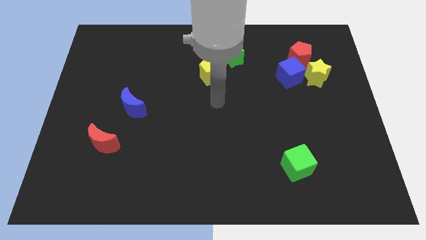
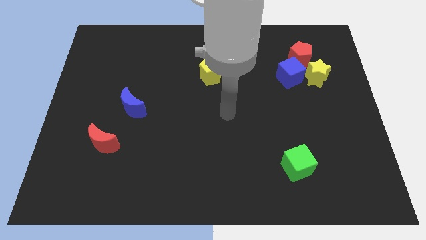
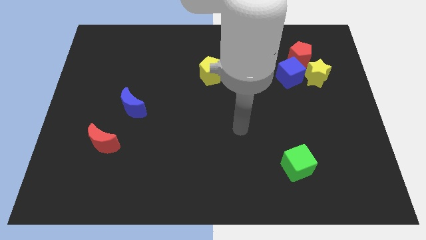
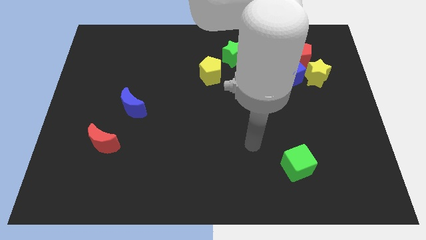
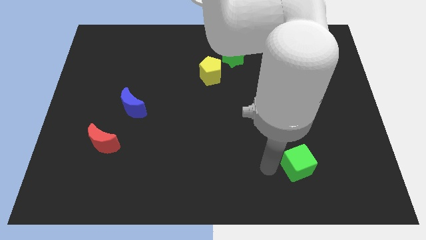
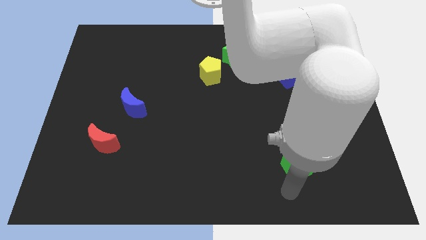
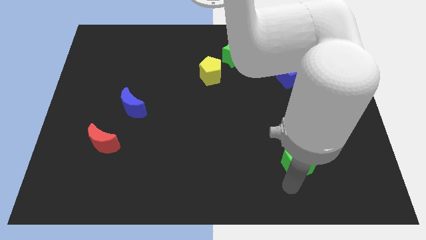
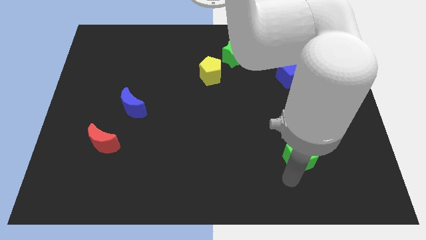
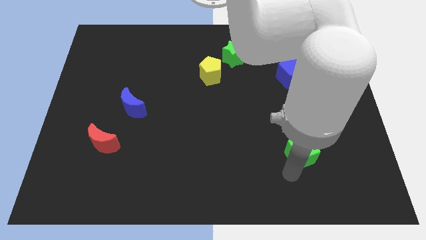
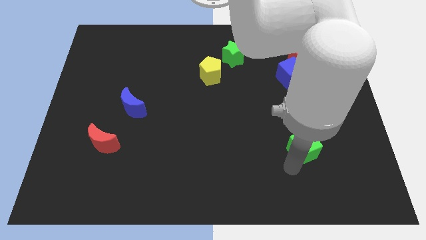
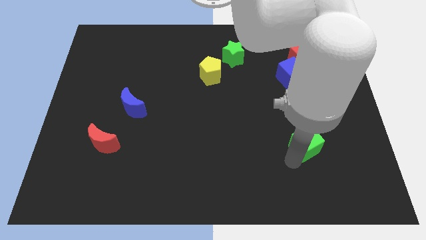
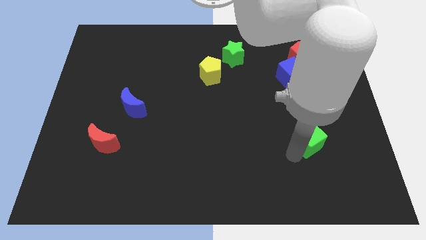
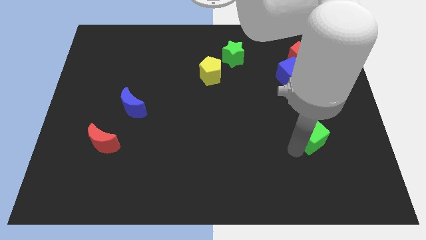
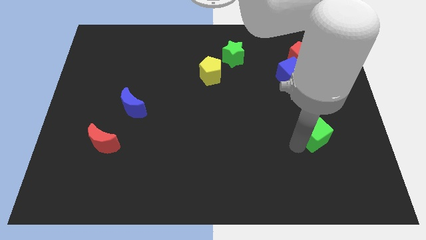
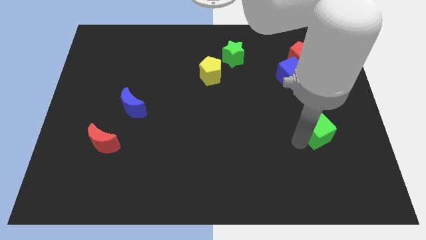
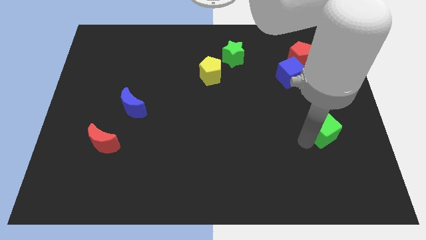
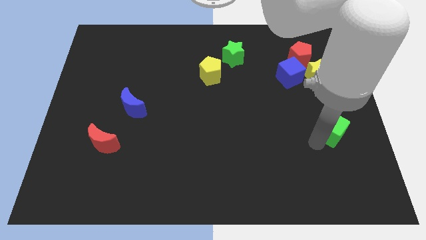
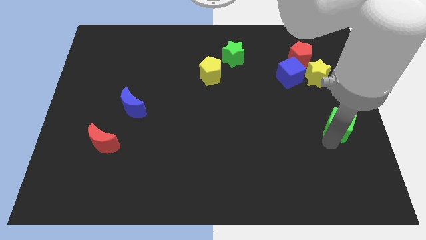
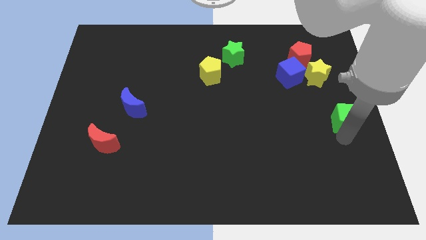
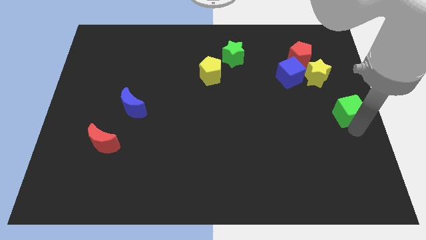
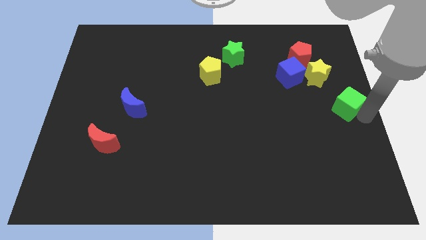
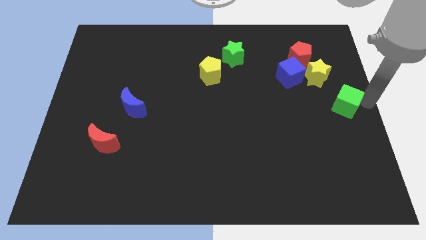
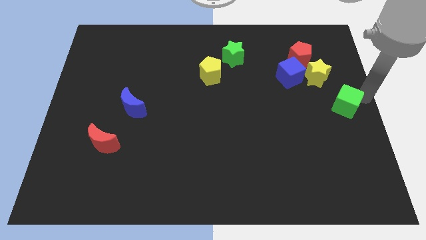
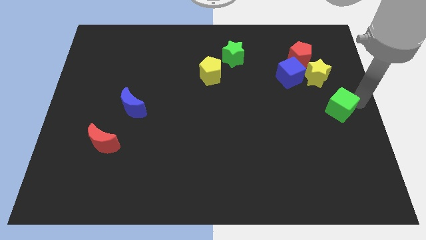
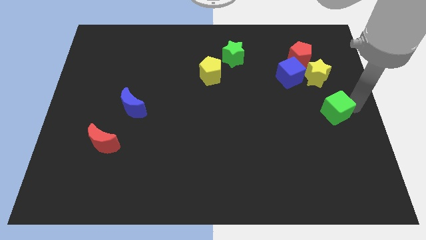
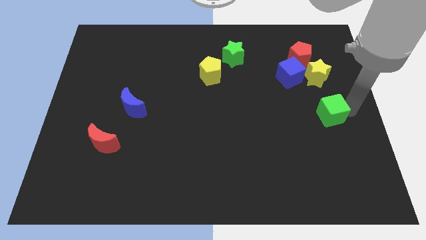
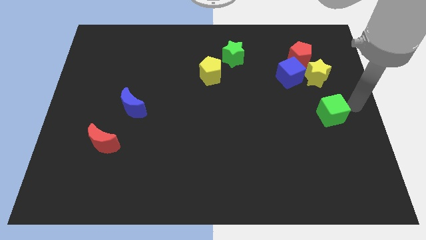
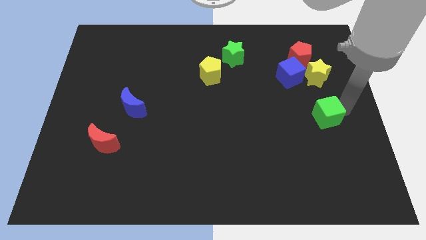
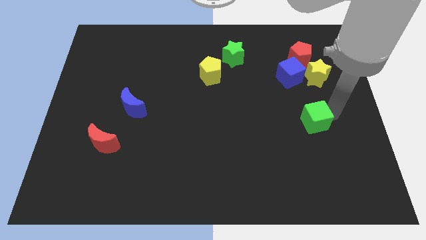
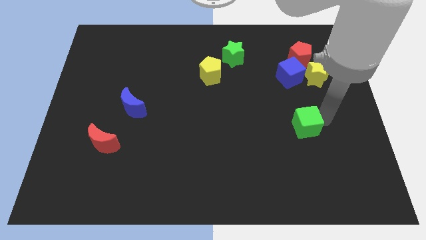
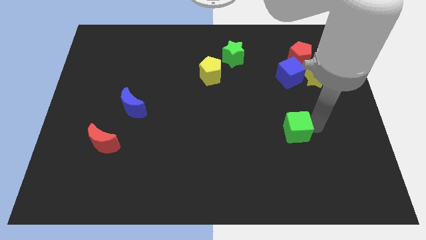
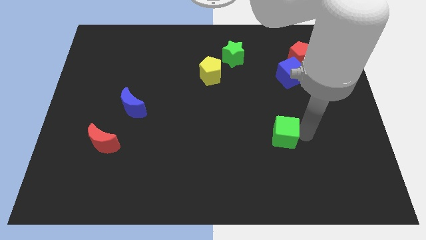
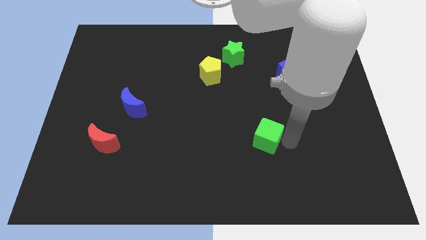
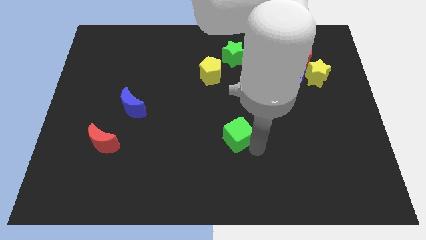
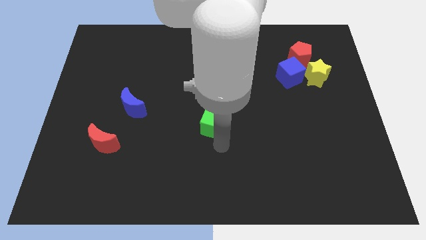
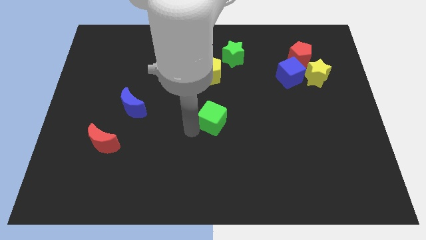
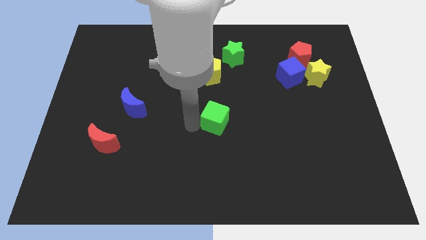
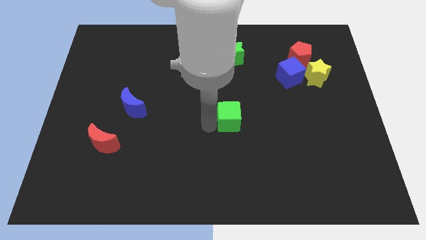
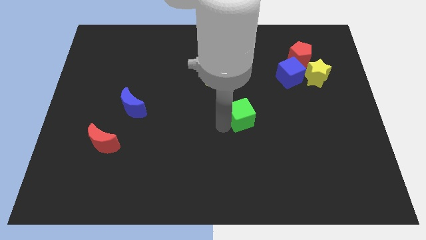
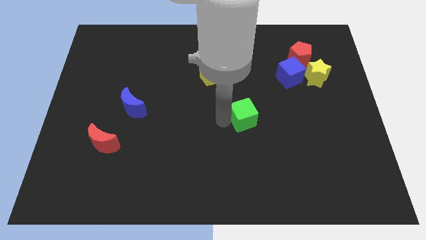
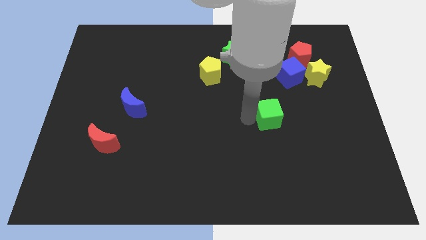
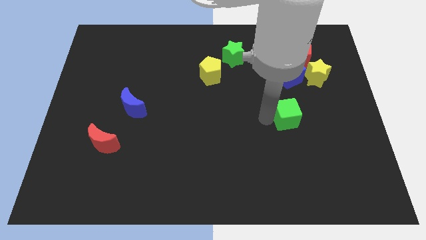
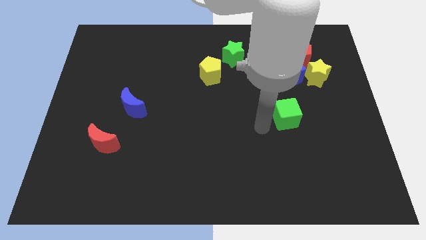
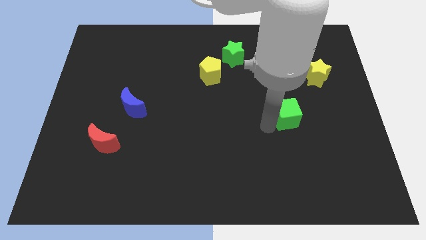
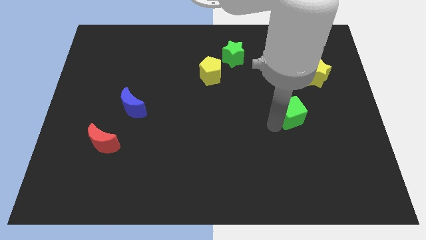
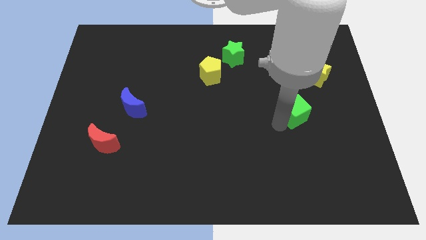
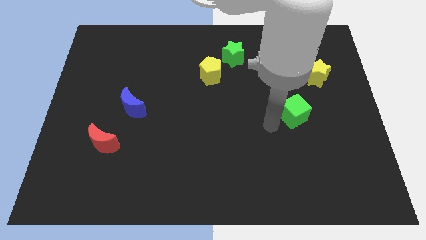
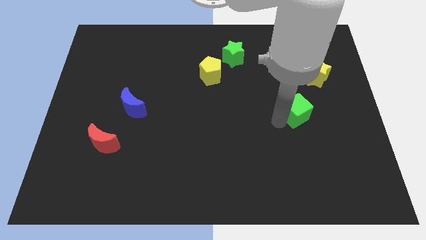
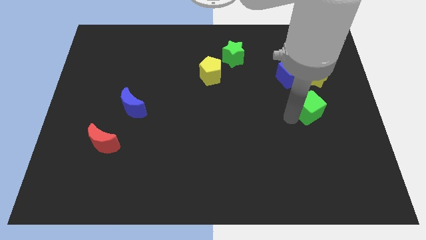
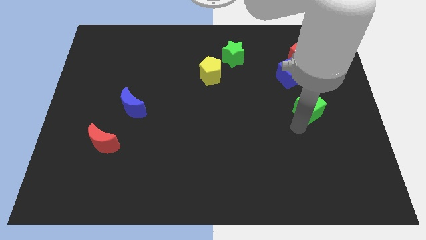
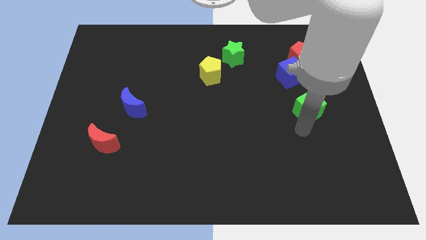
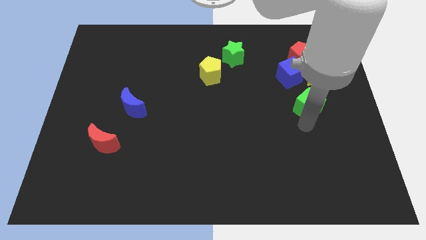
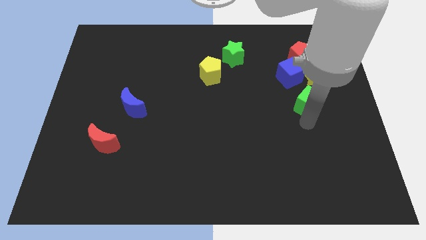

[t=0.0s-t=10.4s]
put the green cube to the bottom right of the blue cube

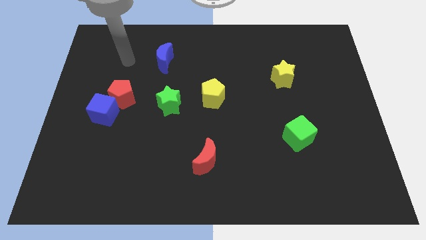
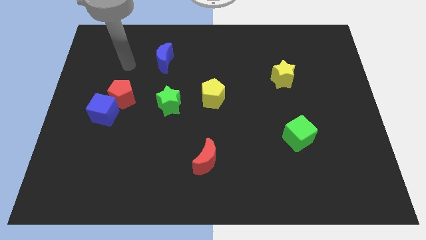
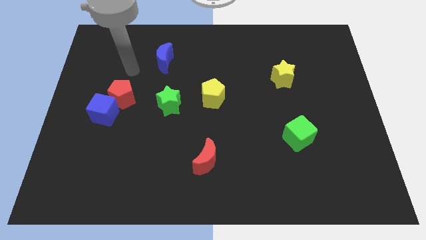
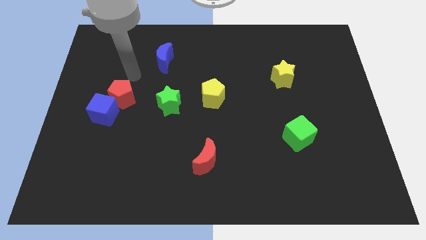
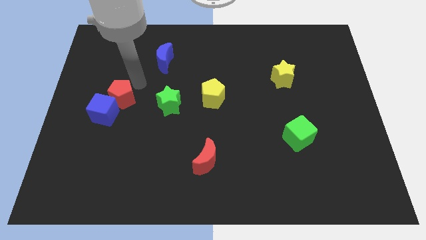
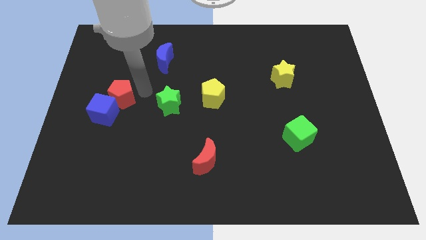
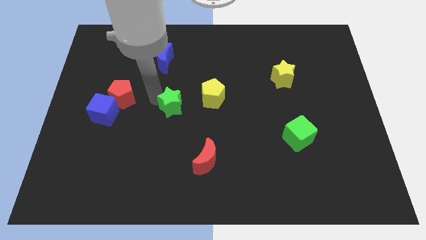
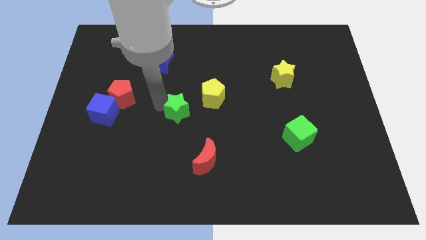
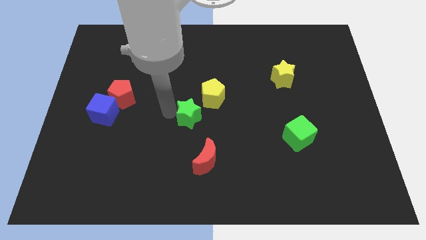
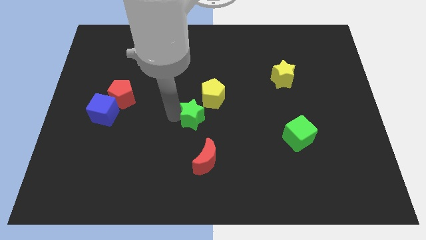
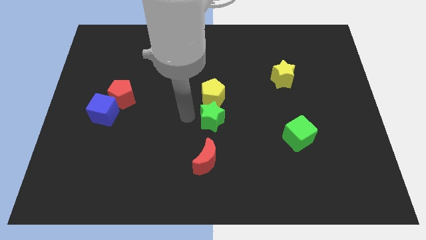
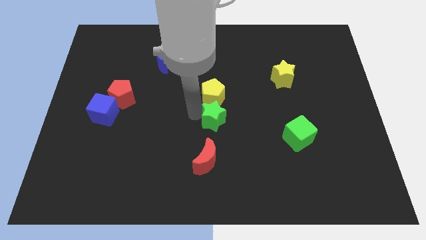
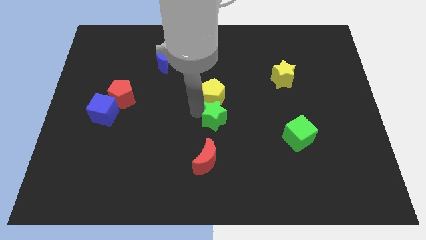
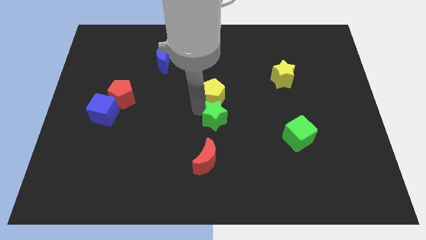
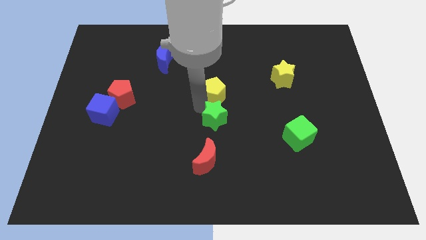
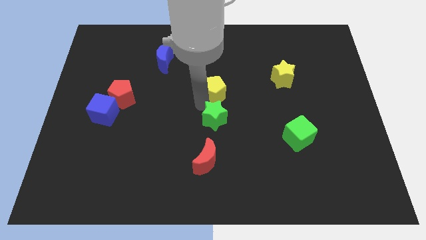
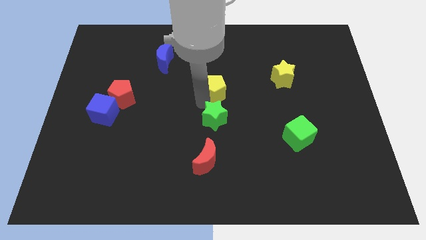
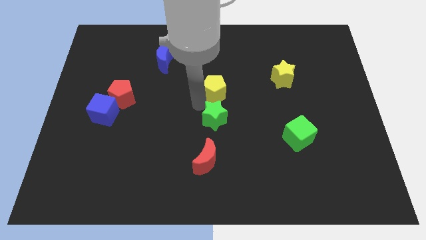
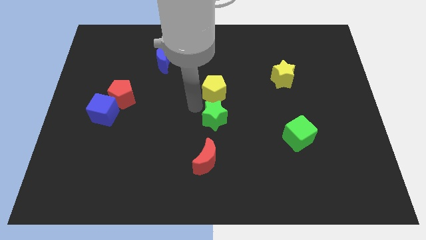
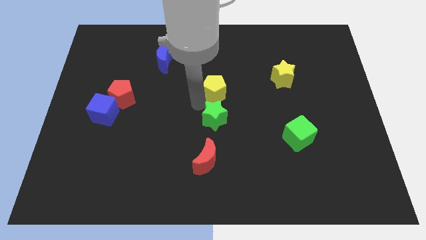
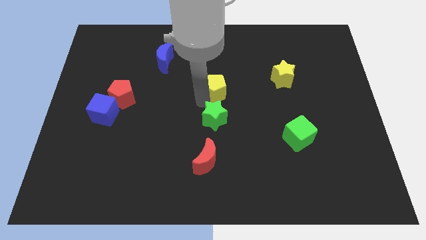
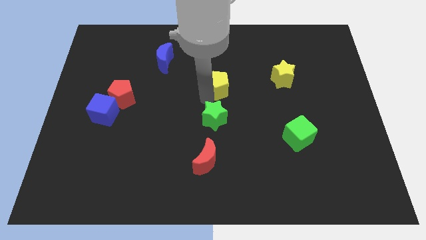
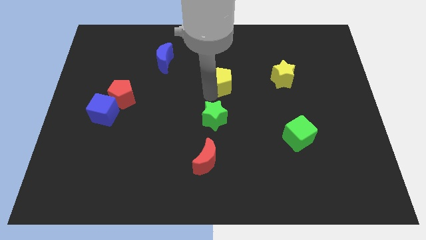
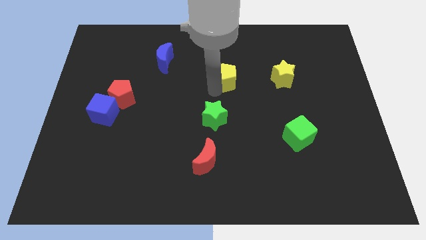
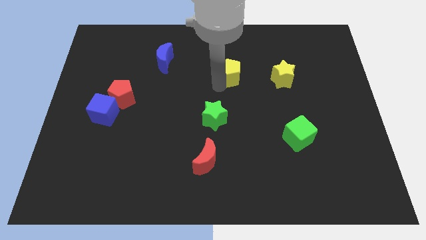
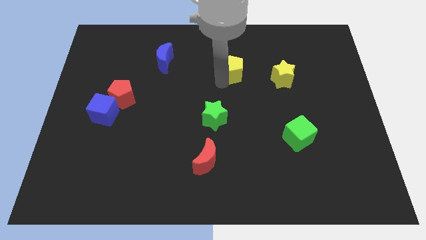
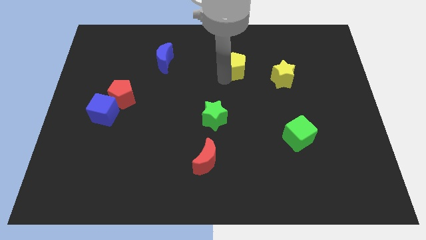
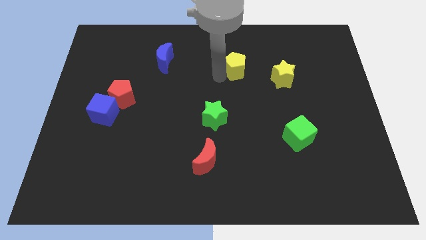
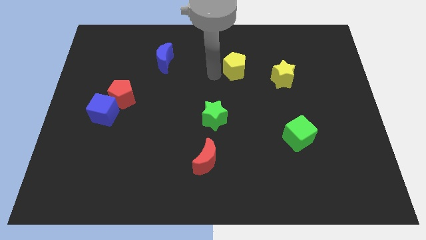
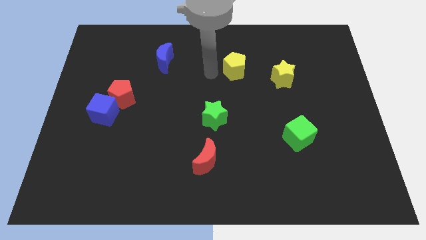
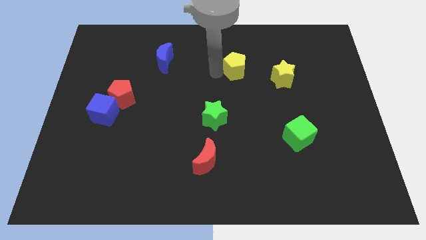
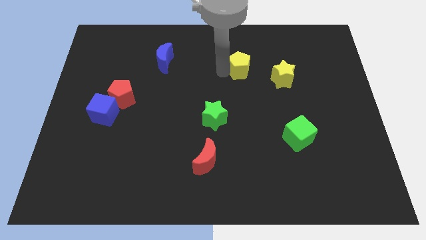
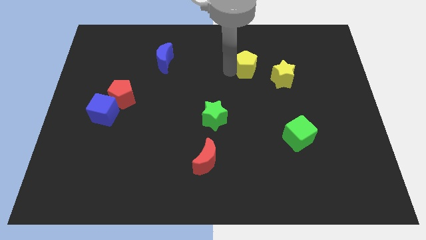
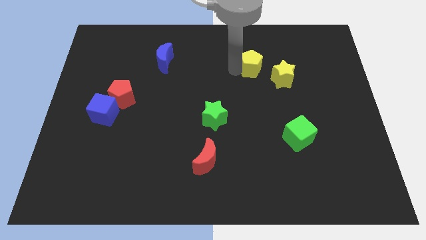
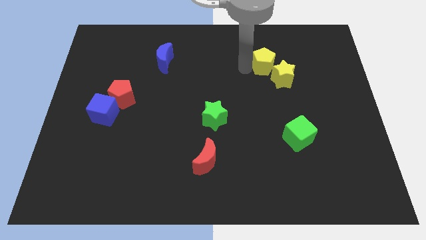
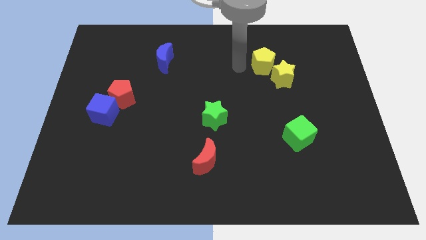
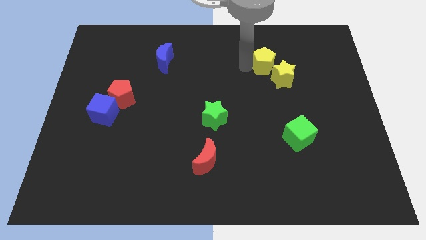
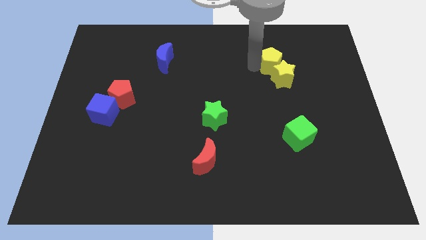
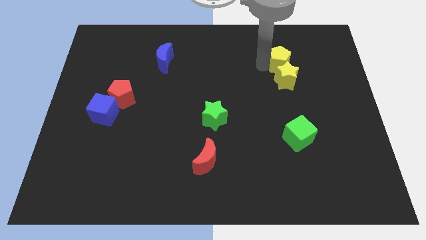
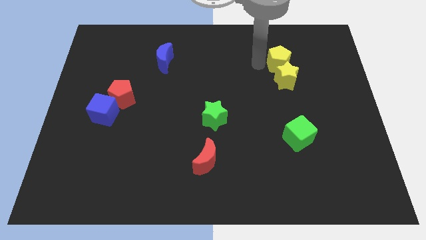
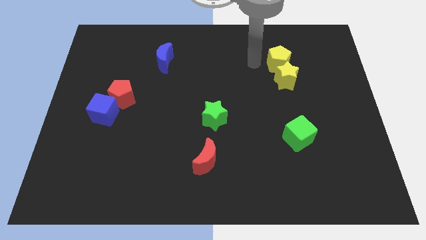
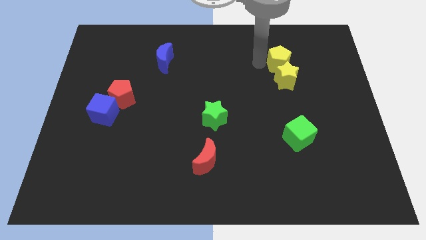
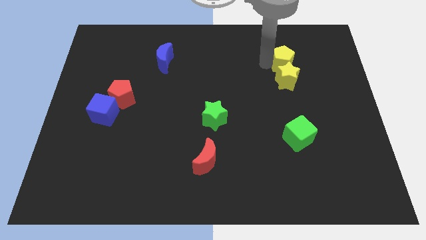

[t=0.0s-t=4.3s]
move the yellow pentagon to the top right of the yellow star
